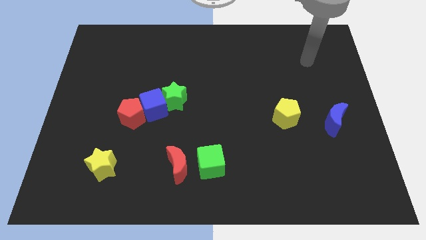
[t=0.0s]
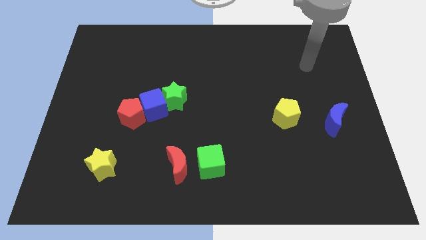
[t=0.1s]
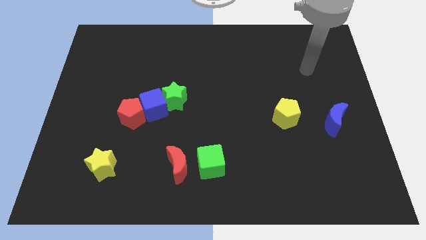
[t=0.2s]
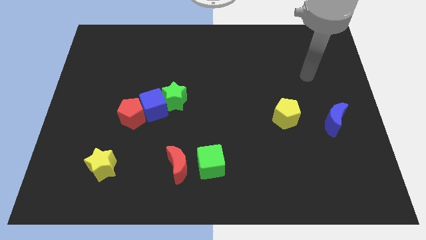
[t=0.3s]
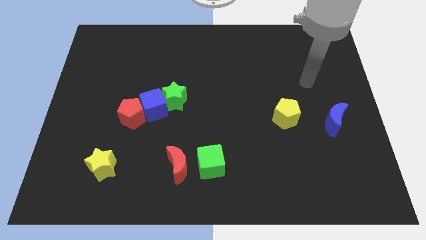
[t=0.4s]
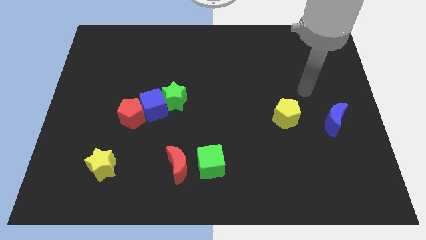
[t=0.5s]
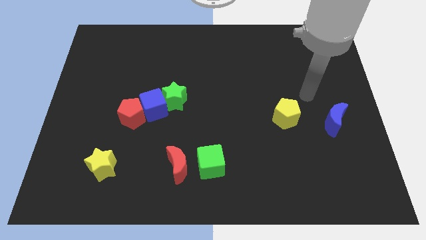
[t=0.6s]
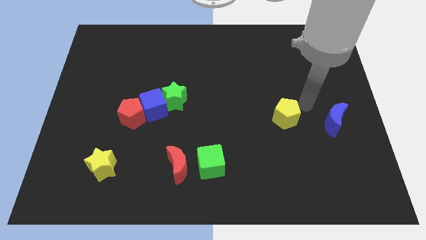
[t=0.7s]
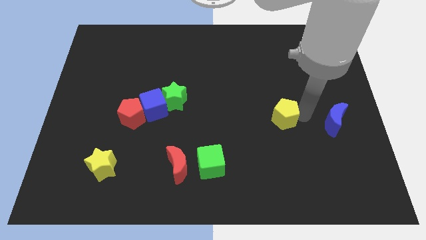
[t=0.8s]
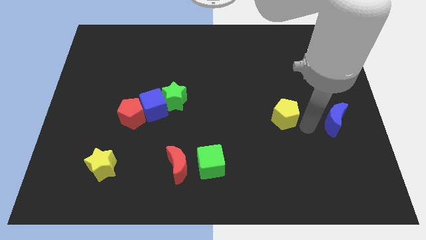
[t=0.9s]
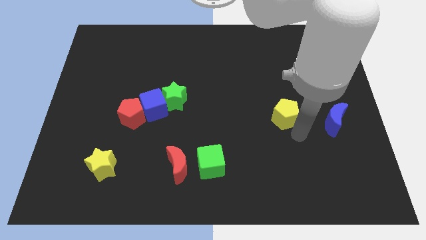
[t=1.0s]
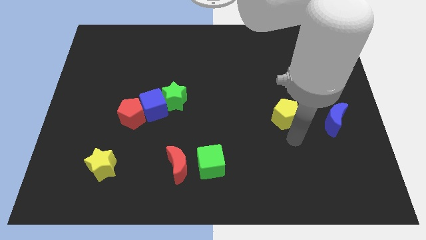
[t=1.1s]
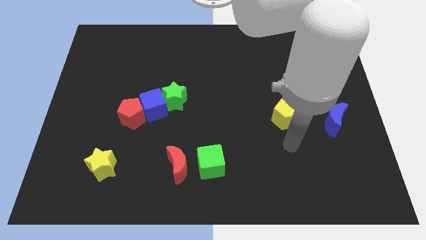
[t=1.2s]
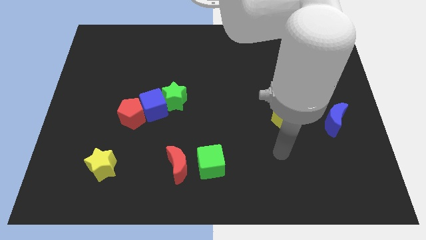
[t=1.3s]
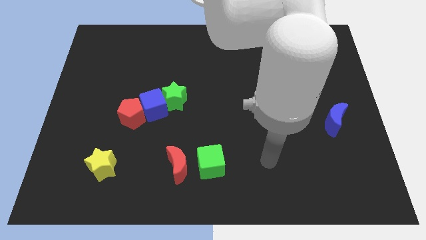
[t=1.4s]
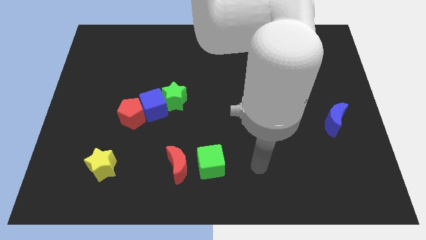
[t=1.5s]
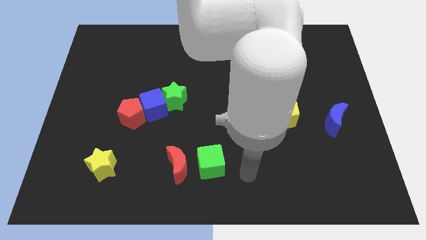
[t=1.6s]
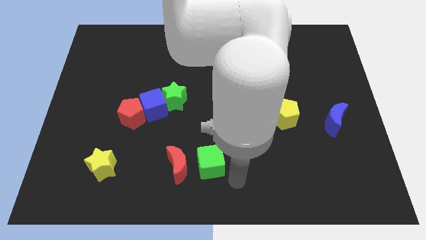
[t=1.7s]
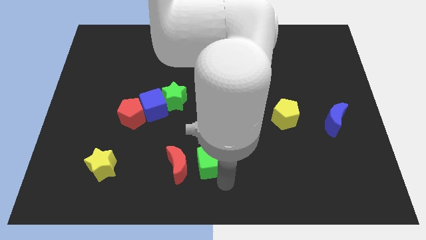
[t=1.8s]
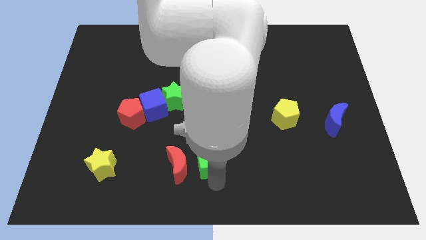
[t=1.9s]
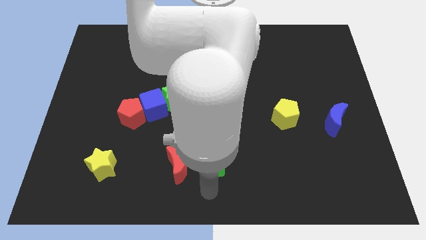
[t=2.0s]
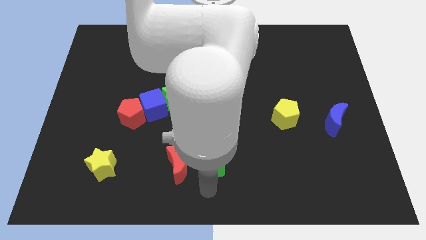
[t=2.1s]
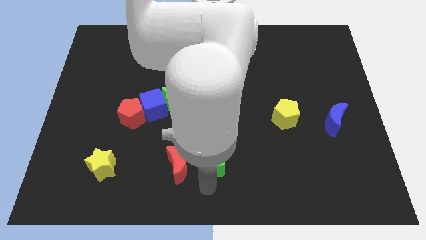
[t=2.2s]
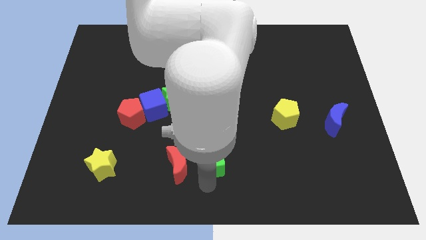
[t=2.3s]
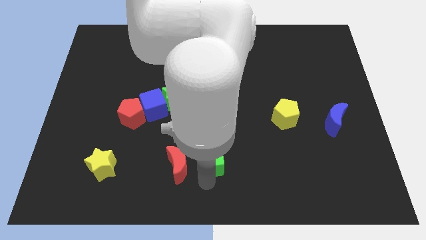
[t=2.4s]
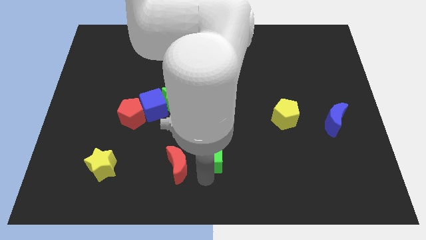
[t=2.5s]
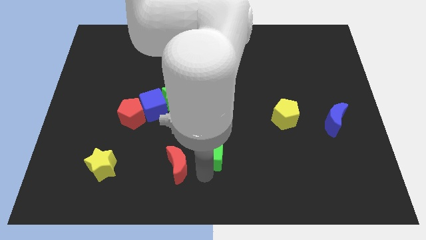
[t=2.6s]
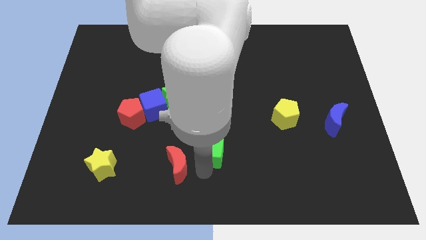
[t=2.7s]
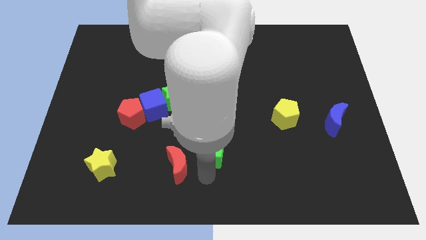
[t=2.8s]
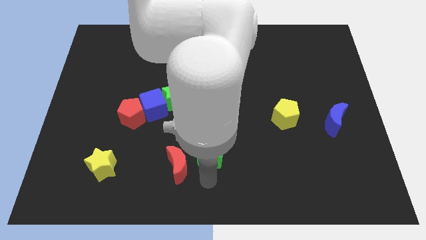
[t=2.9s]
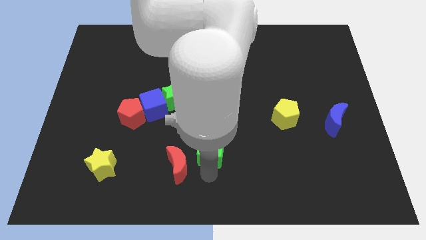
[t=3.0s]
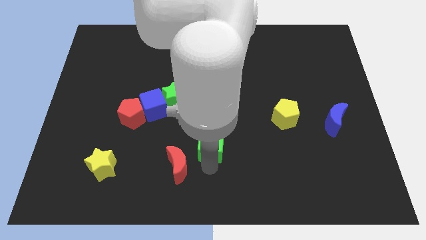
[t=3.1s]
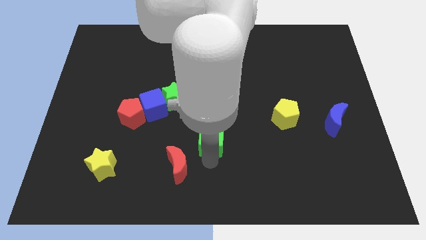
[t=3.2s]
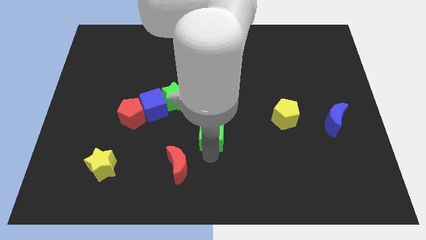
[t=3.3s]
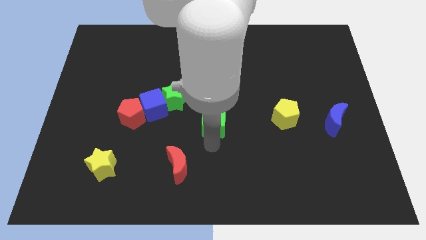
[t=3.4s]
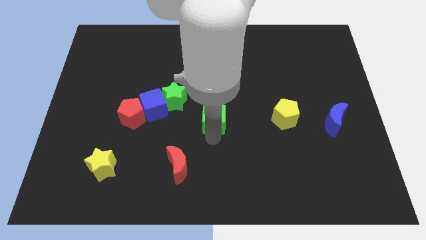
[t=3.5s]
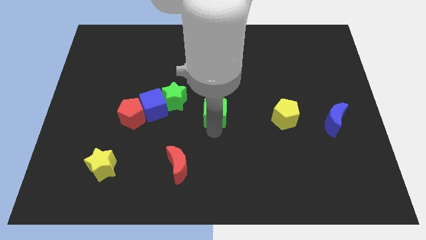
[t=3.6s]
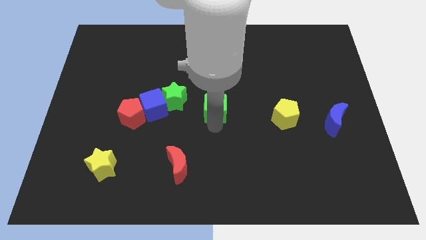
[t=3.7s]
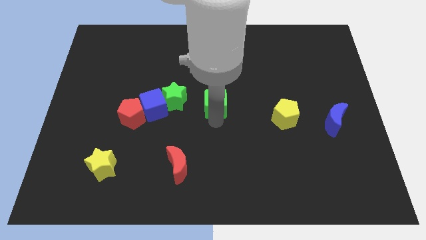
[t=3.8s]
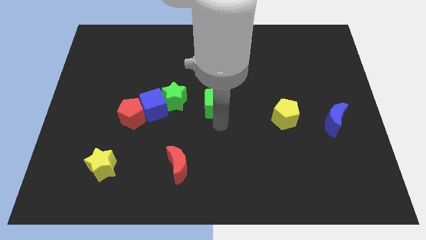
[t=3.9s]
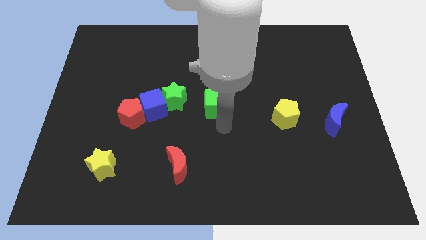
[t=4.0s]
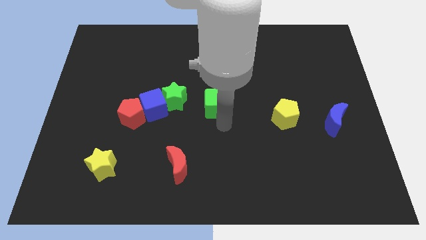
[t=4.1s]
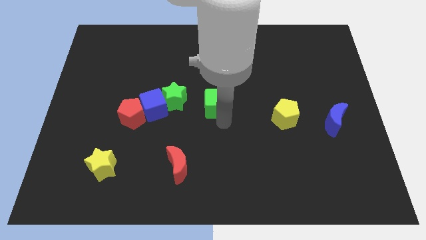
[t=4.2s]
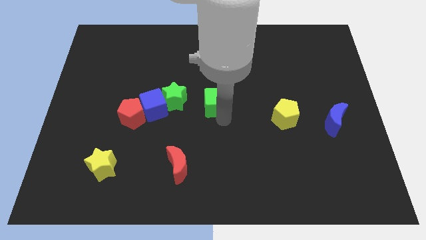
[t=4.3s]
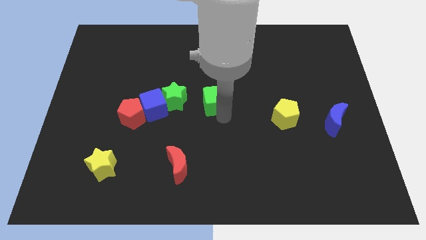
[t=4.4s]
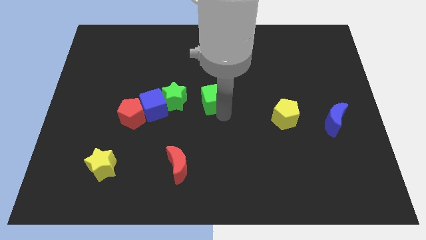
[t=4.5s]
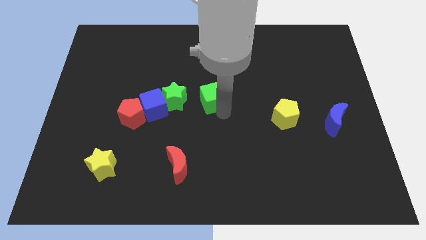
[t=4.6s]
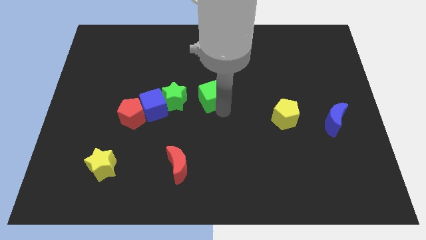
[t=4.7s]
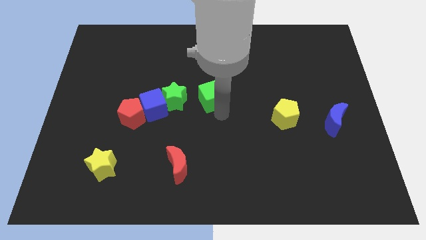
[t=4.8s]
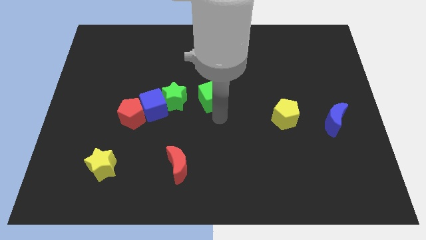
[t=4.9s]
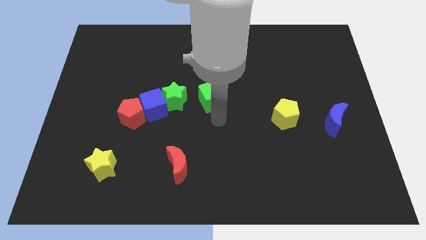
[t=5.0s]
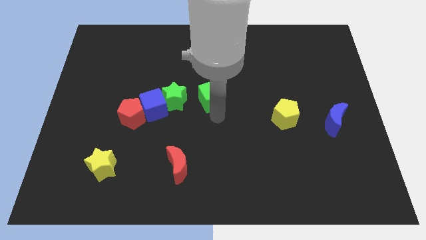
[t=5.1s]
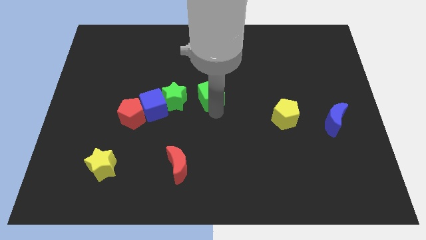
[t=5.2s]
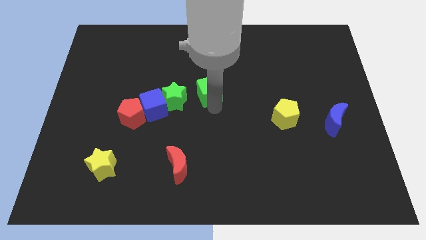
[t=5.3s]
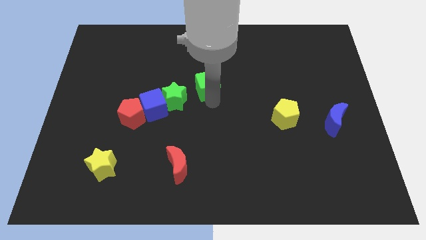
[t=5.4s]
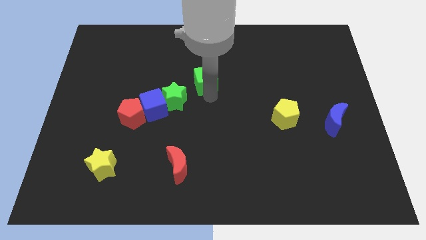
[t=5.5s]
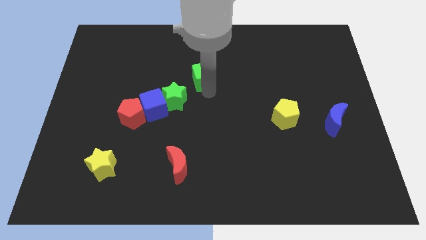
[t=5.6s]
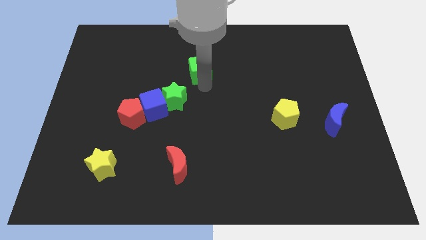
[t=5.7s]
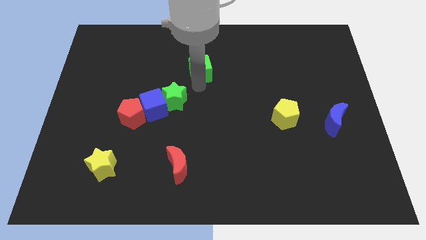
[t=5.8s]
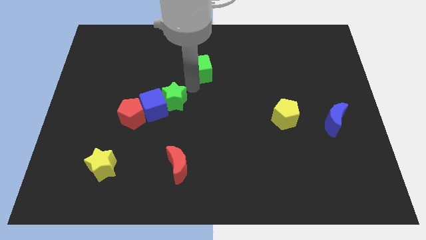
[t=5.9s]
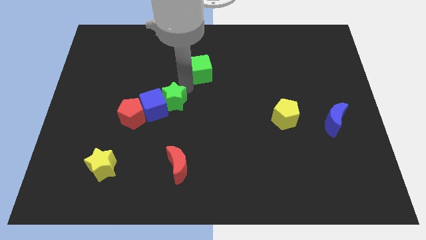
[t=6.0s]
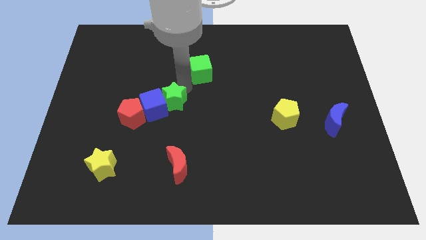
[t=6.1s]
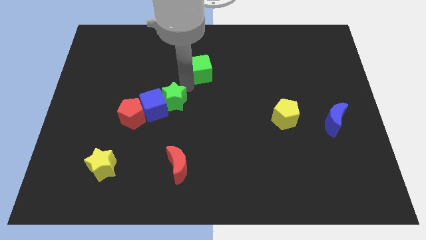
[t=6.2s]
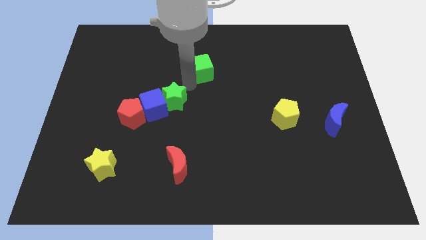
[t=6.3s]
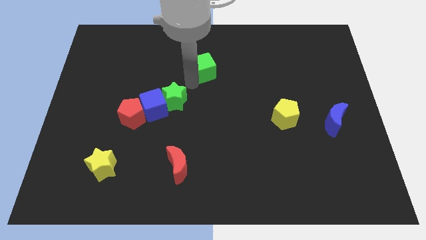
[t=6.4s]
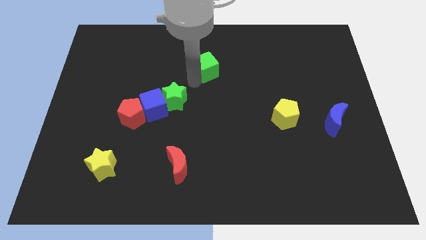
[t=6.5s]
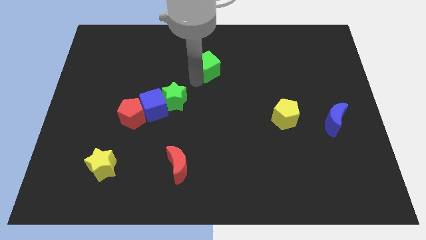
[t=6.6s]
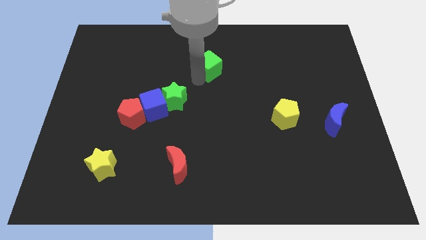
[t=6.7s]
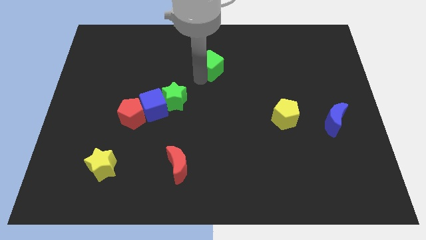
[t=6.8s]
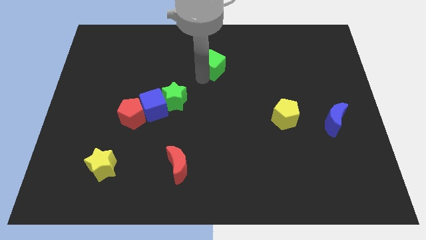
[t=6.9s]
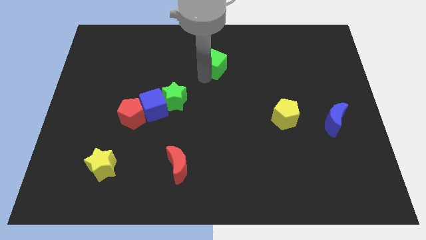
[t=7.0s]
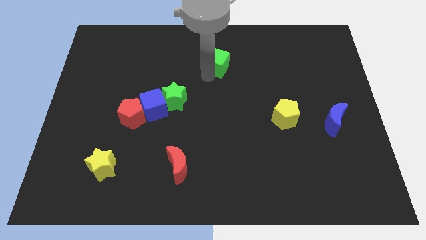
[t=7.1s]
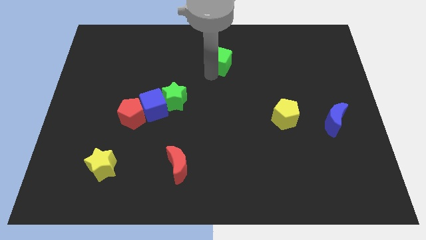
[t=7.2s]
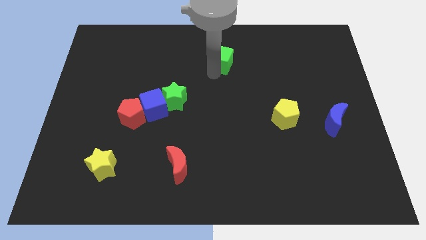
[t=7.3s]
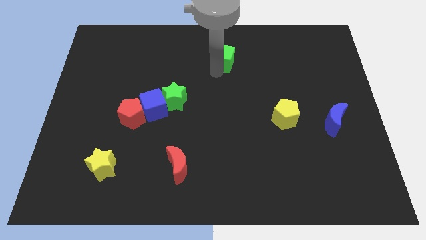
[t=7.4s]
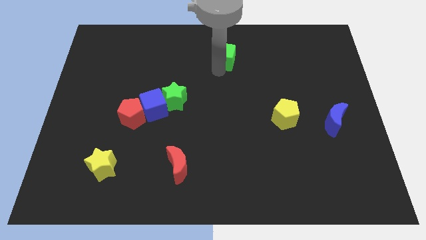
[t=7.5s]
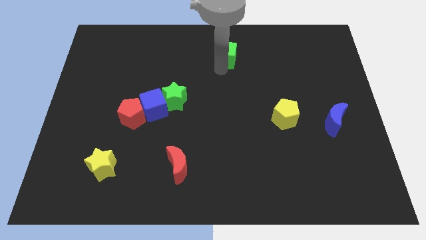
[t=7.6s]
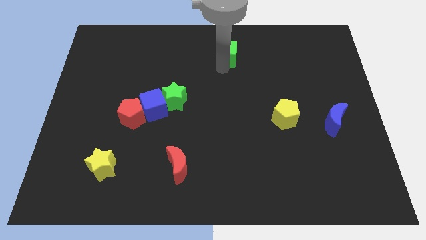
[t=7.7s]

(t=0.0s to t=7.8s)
move the green cube to the towards your base
